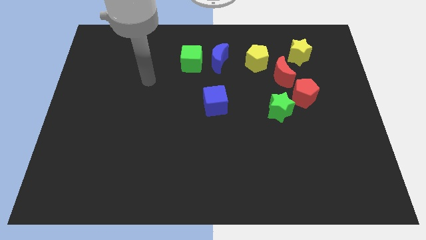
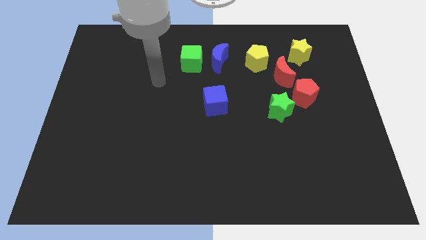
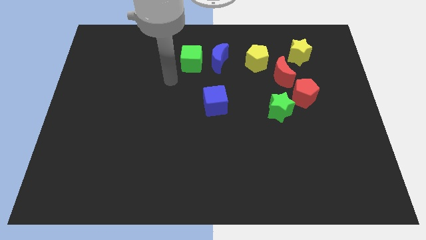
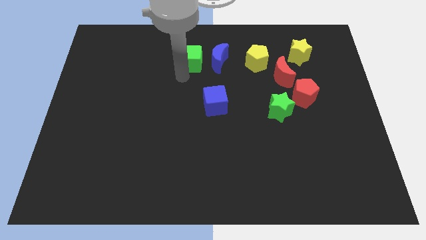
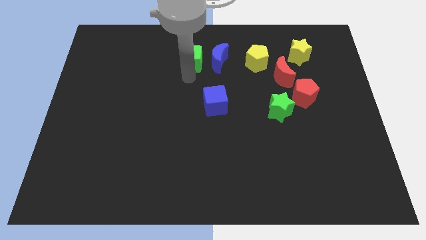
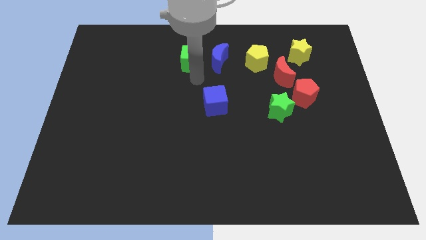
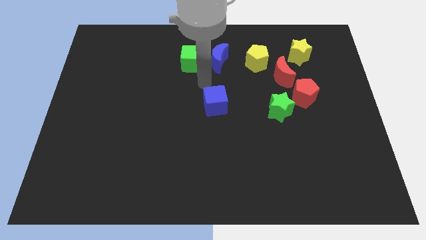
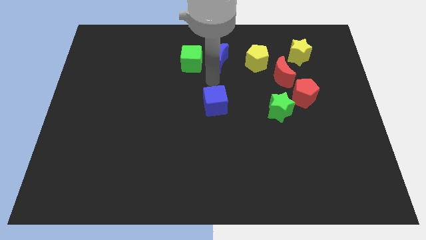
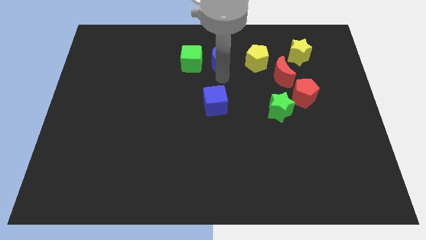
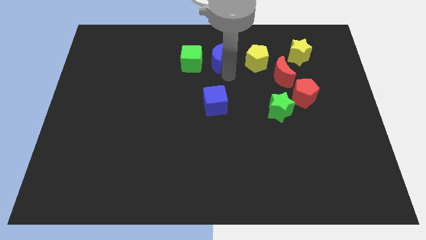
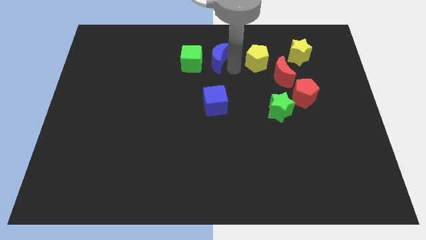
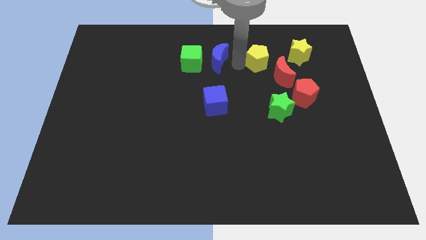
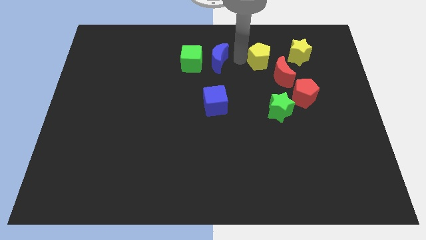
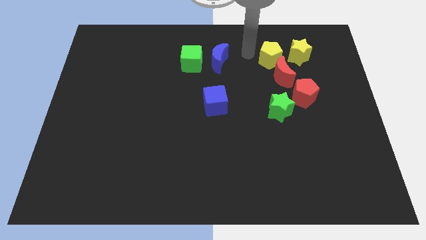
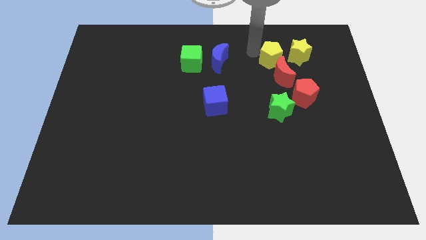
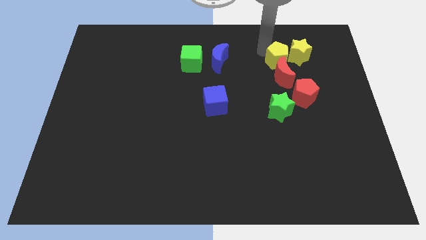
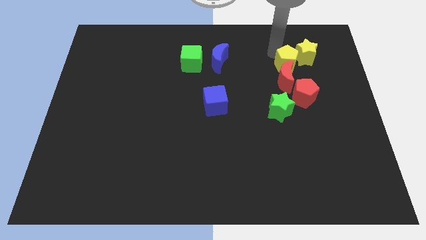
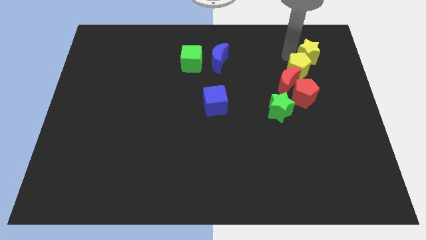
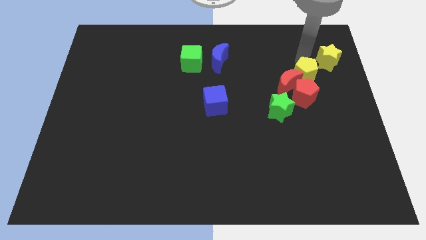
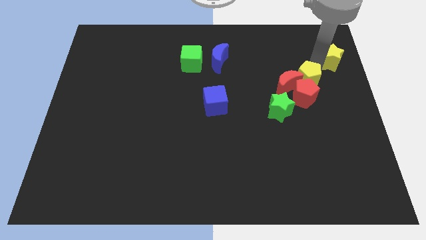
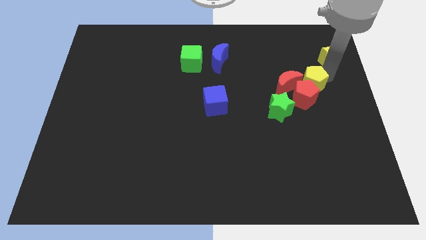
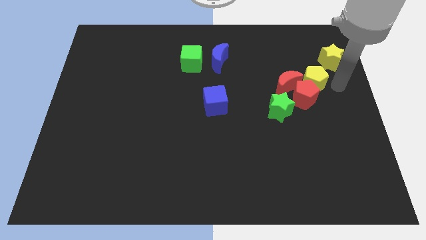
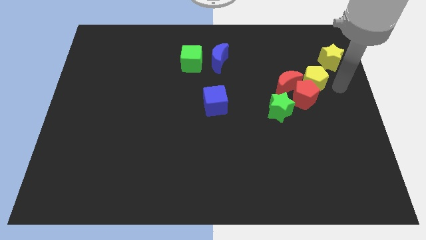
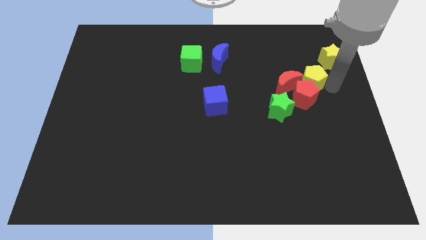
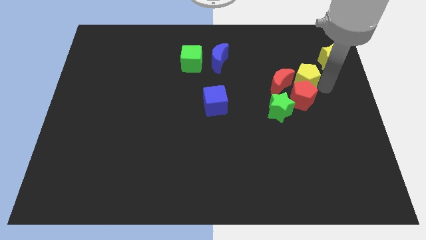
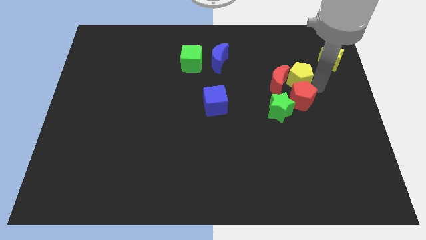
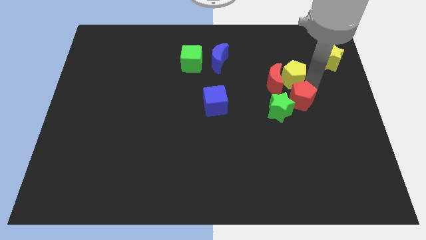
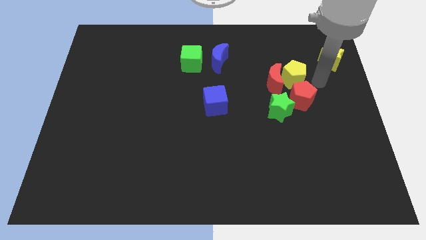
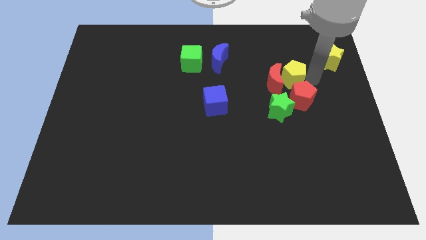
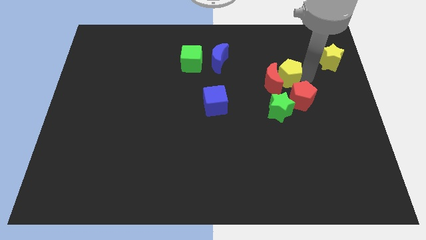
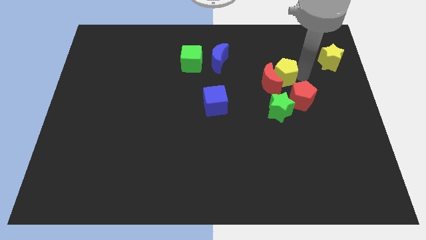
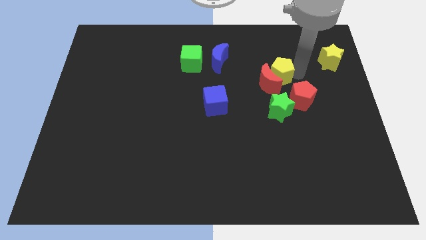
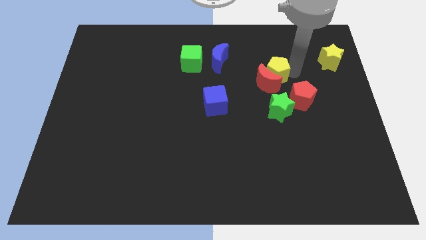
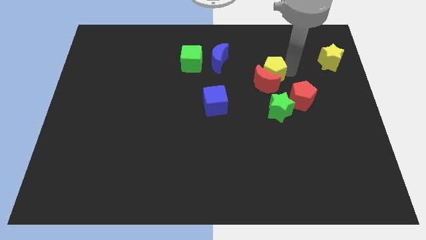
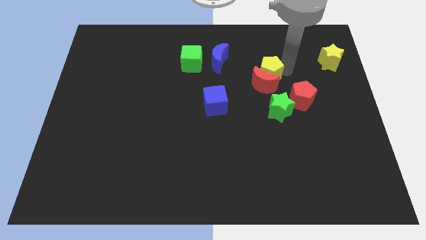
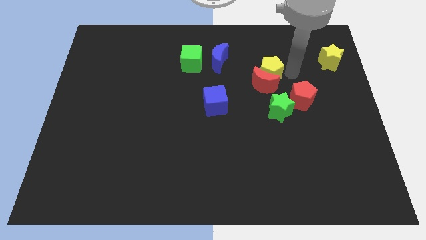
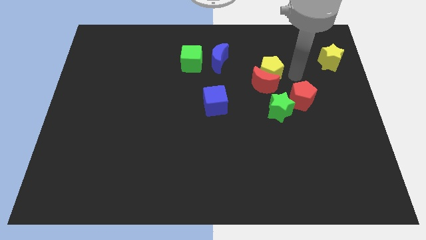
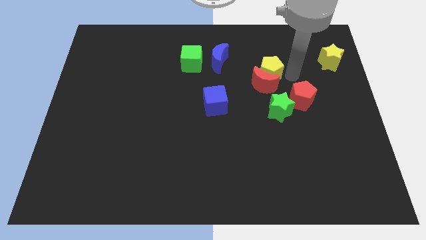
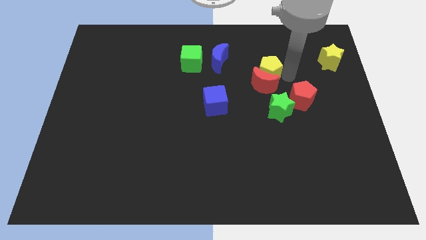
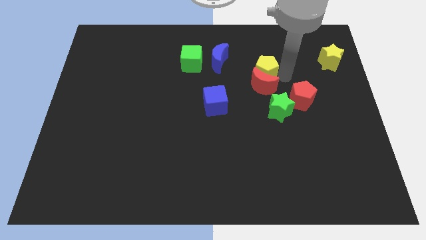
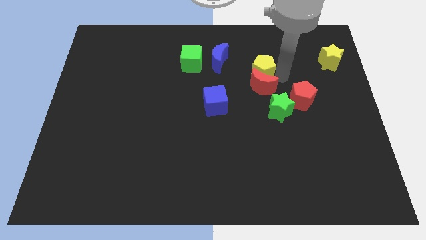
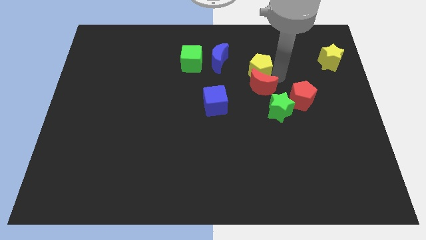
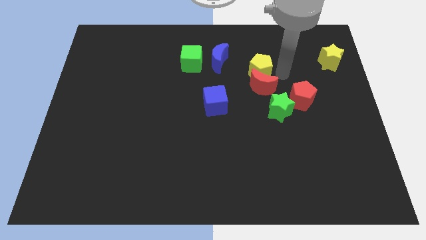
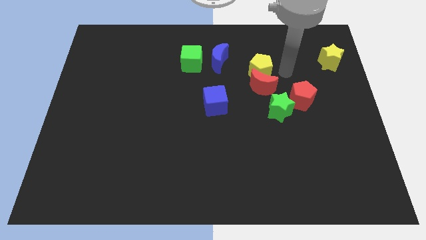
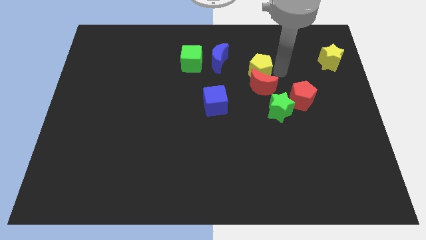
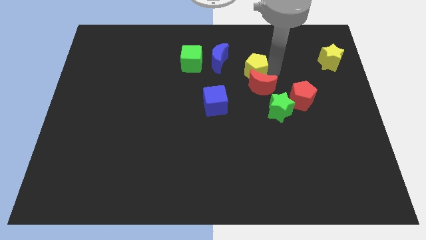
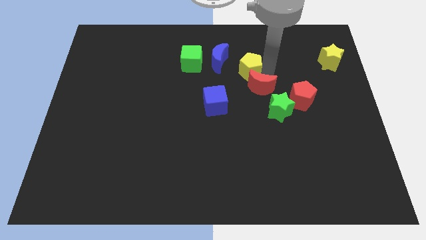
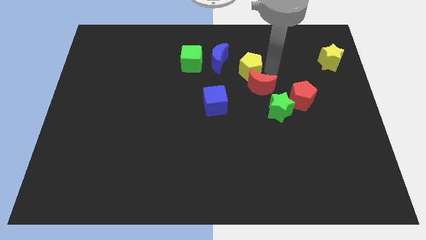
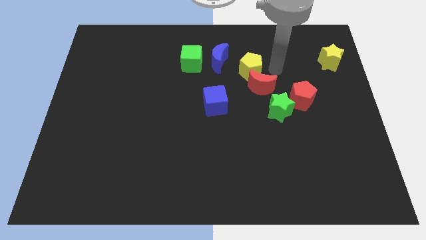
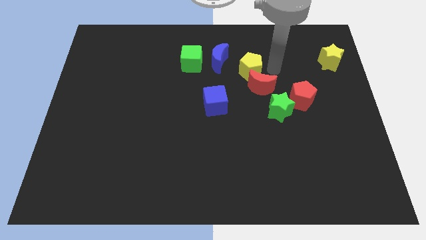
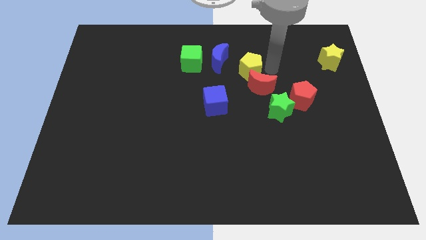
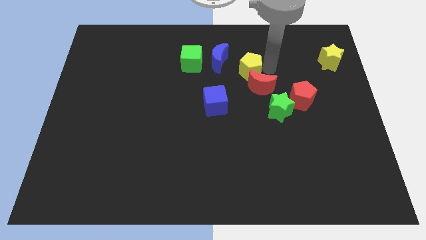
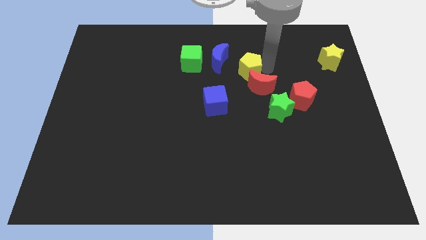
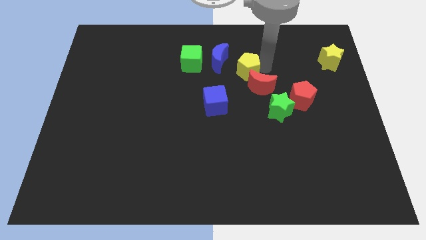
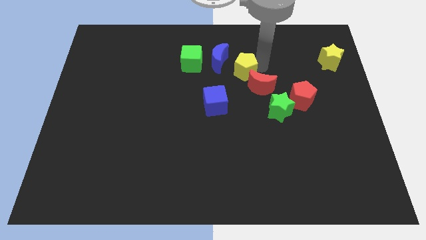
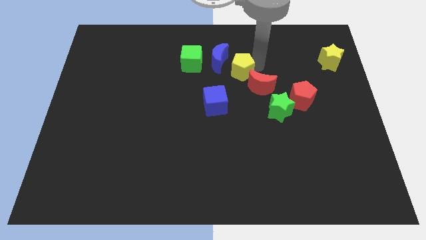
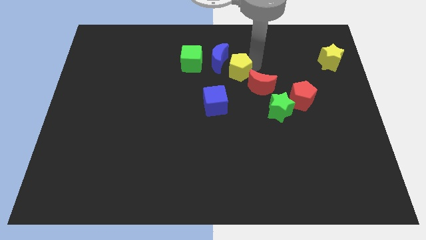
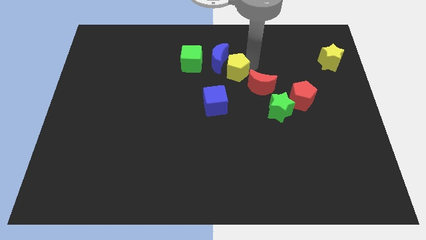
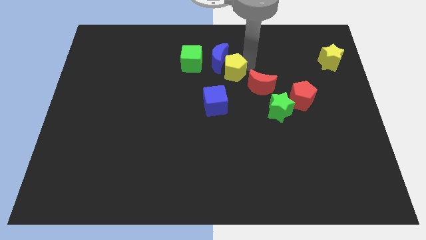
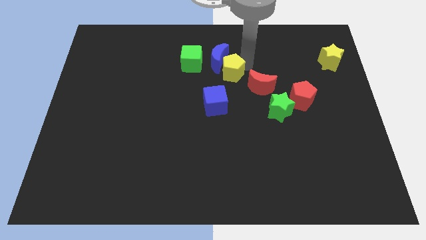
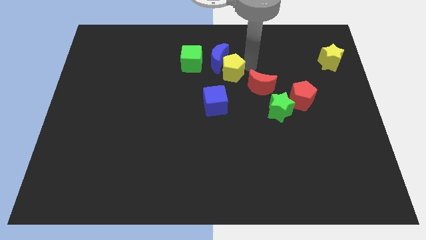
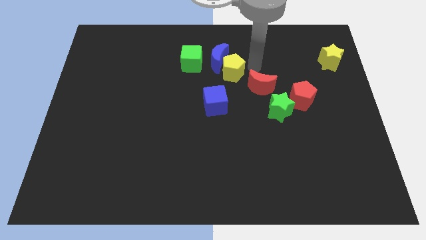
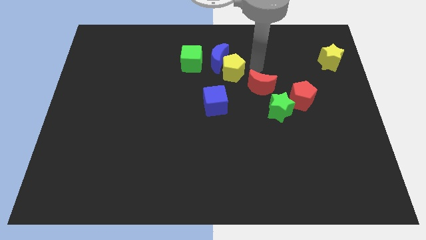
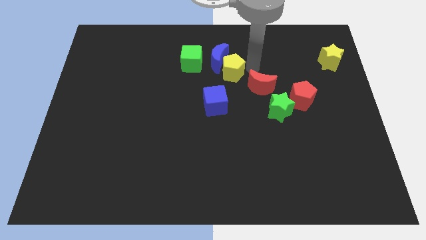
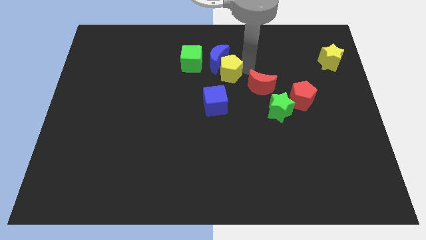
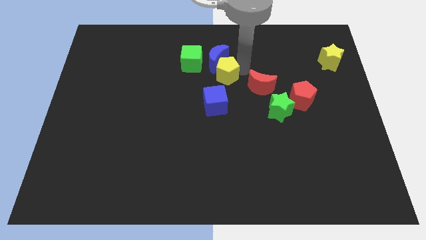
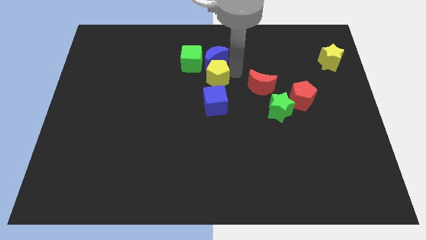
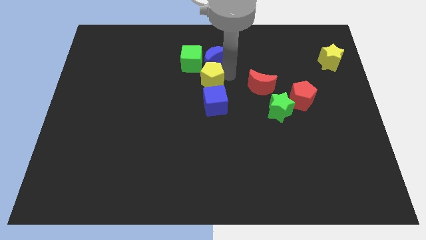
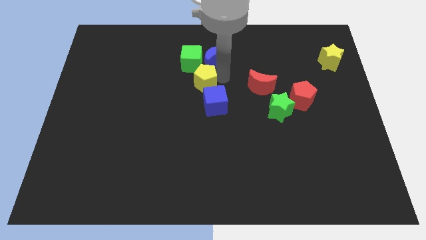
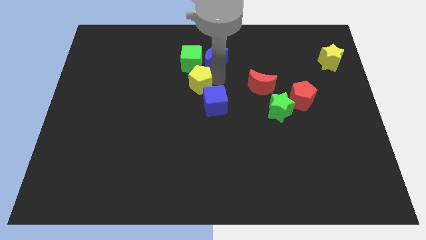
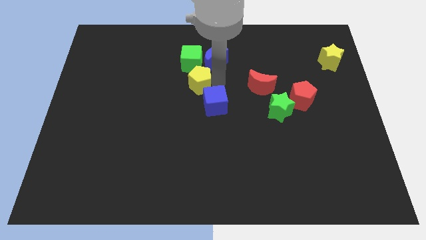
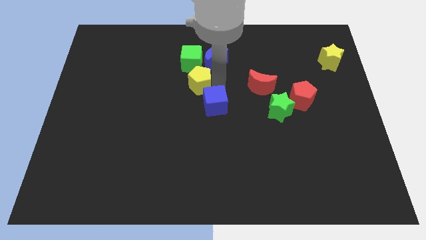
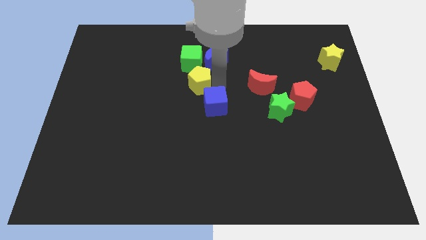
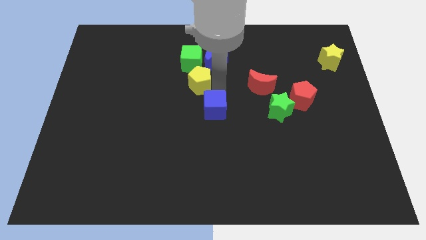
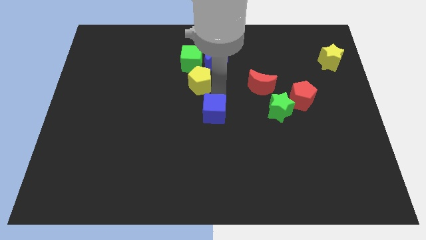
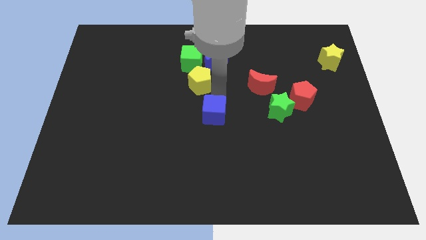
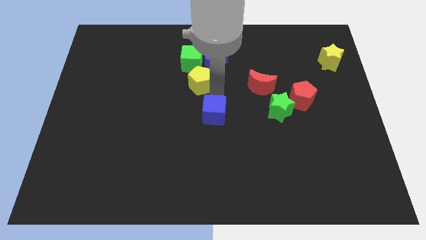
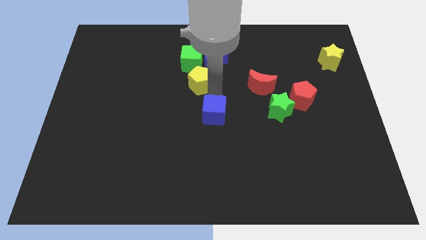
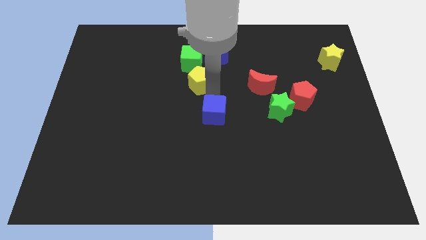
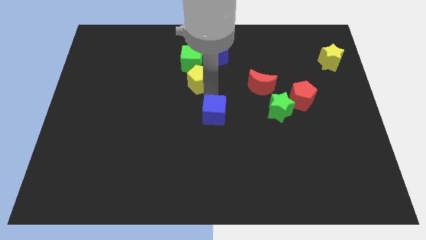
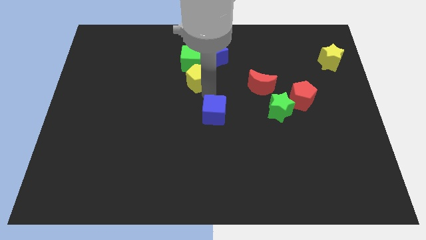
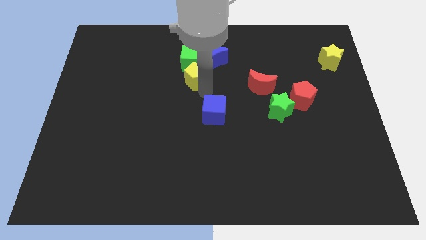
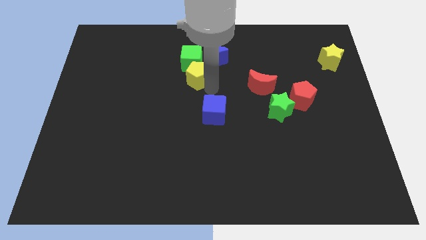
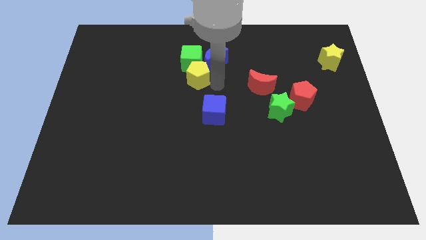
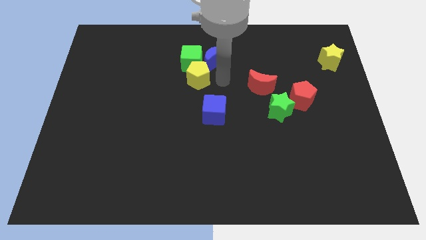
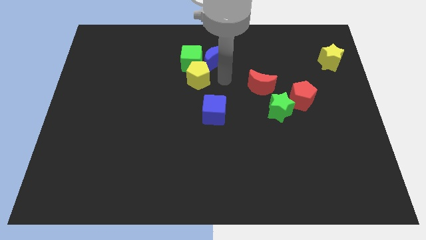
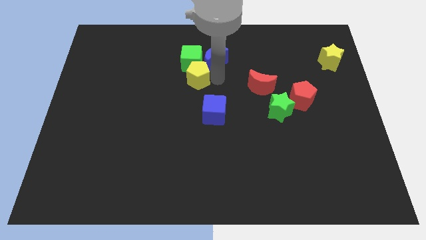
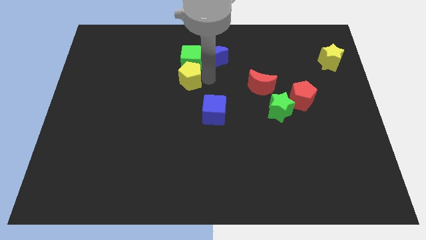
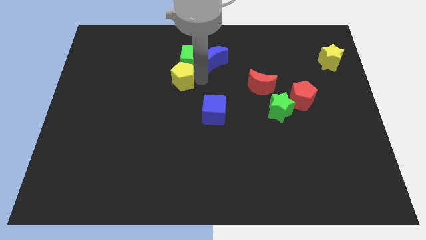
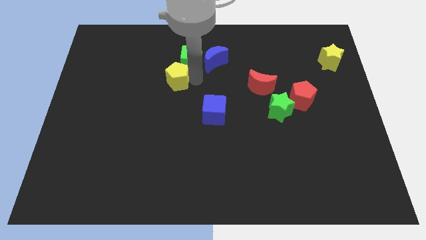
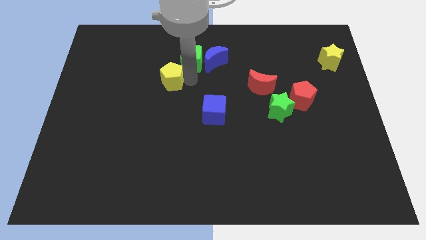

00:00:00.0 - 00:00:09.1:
move the yellow pentagon to the left
